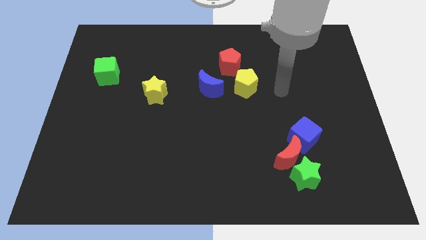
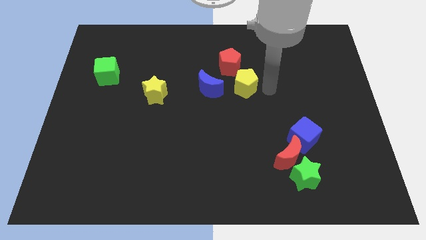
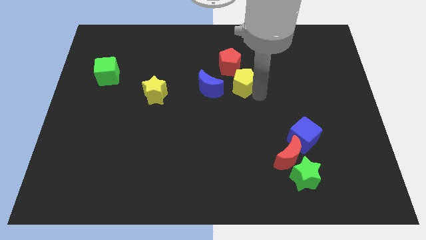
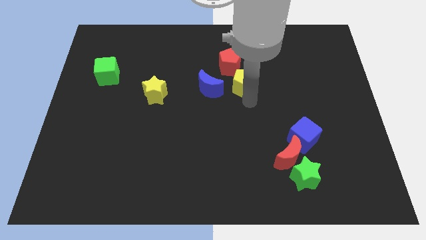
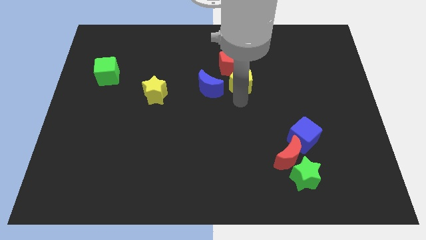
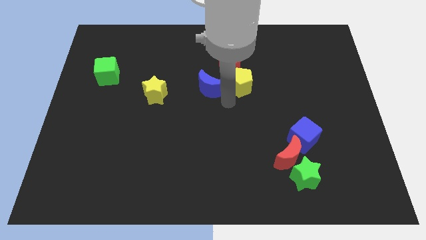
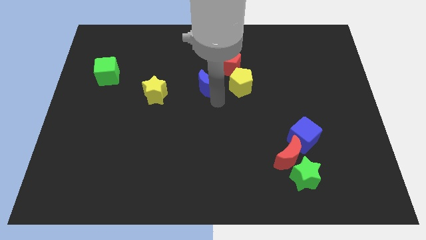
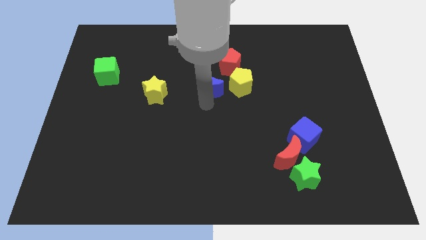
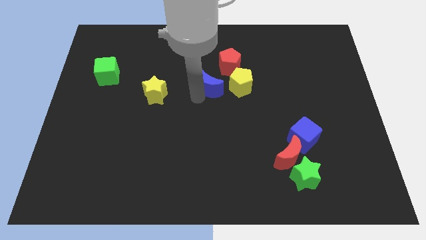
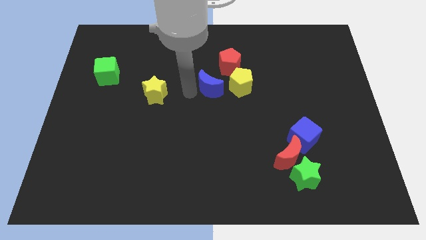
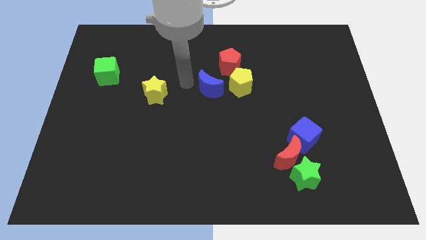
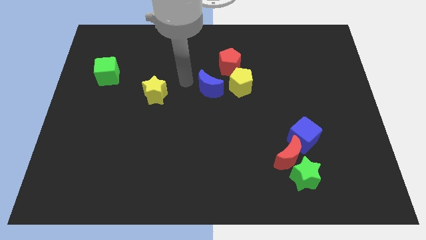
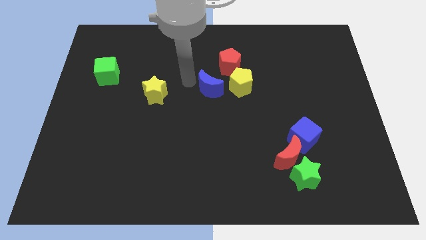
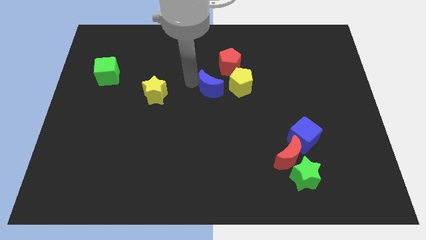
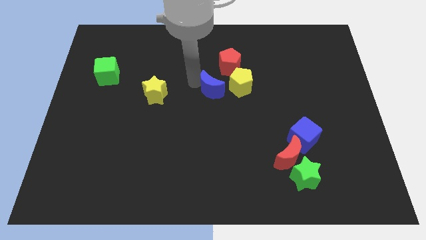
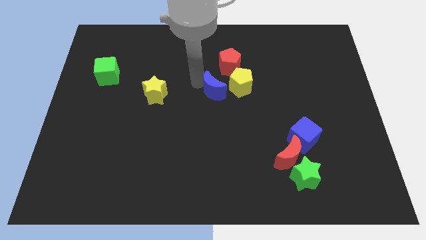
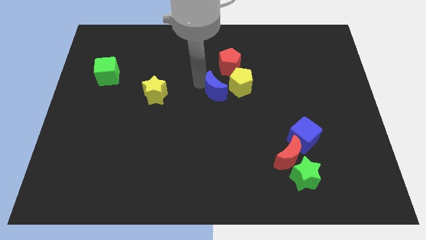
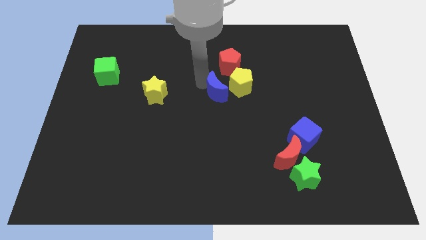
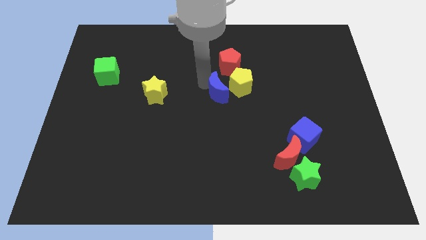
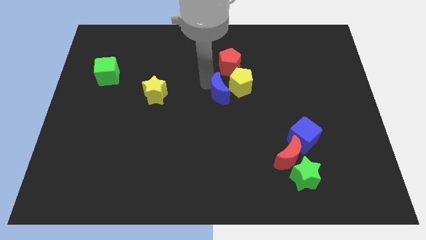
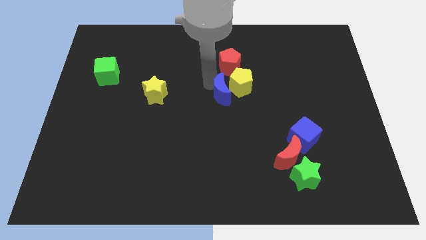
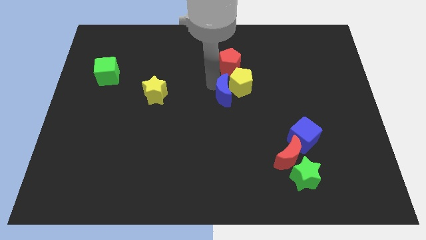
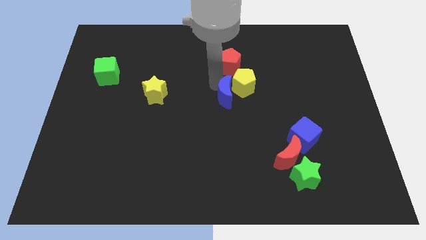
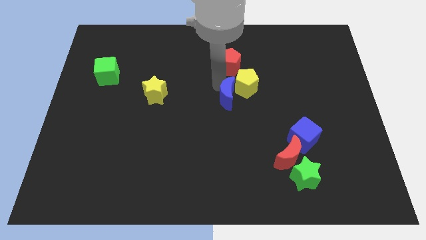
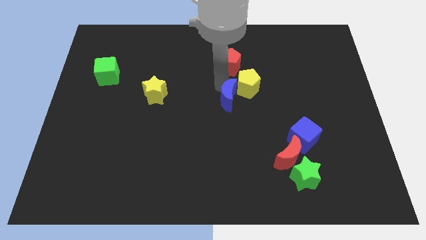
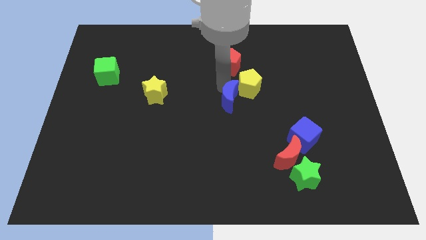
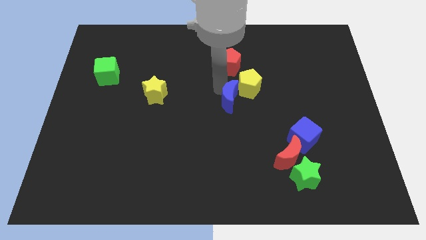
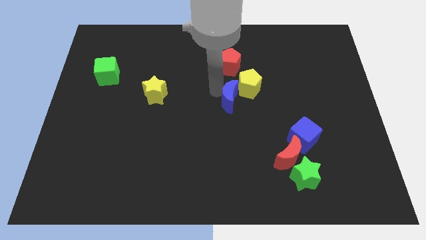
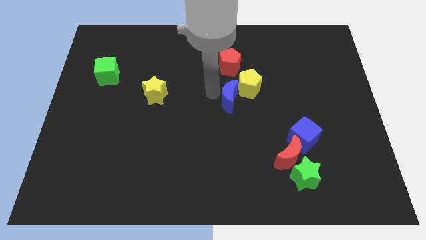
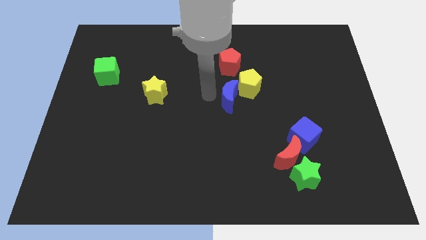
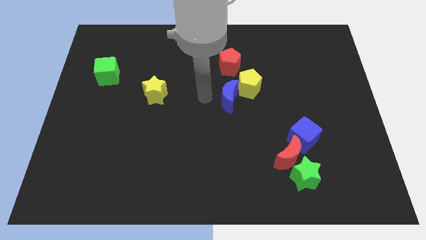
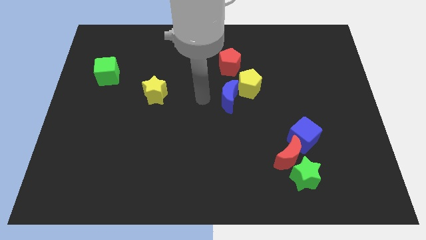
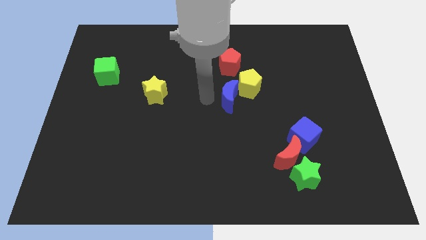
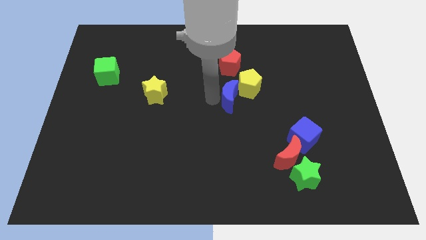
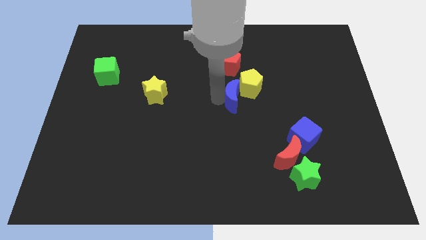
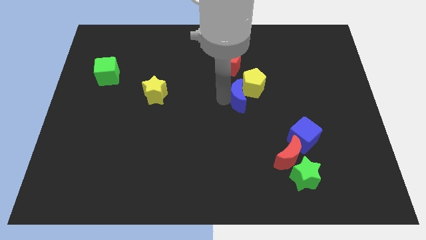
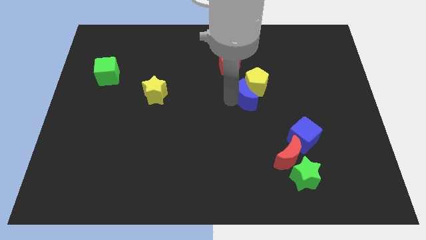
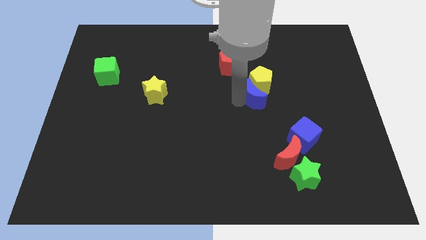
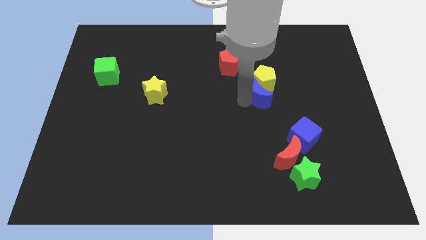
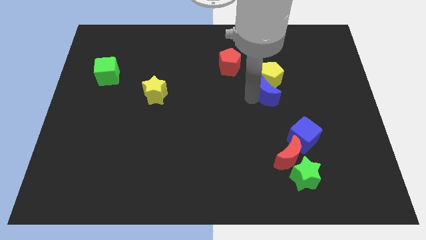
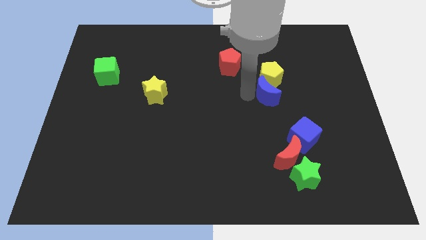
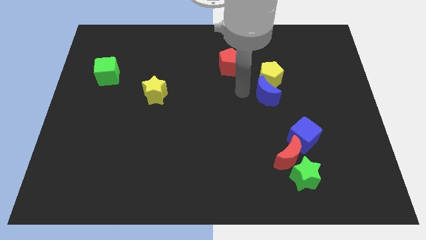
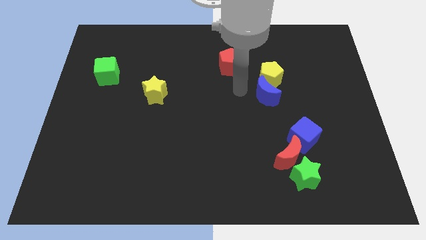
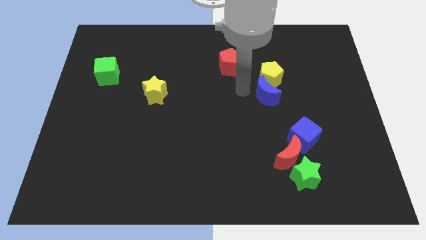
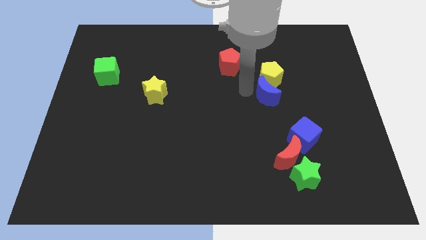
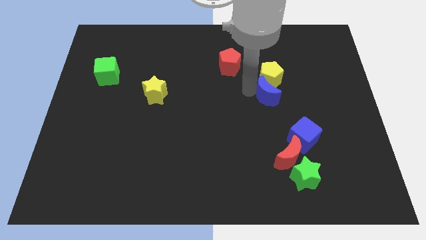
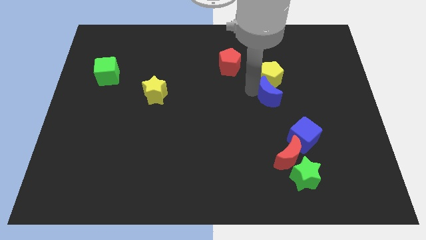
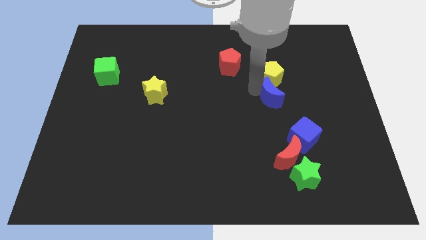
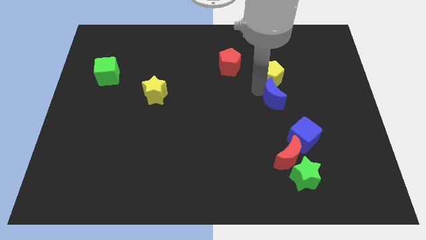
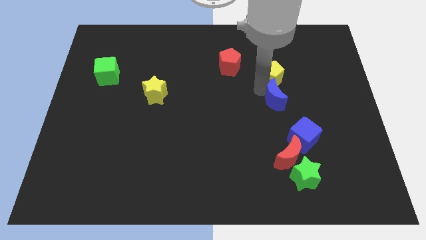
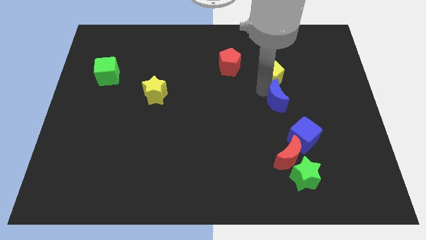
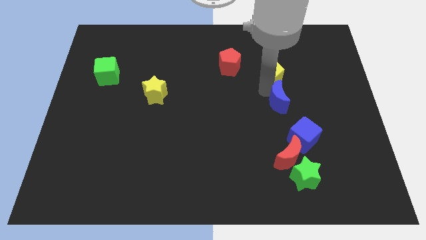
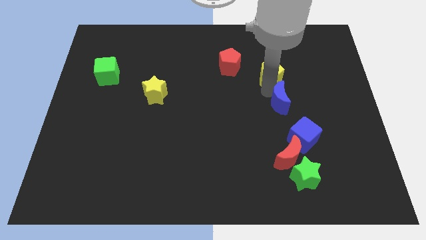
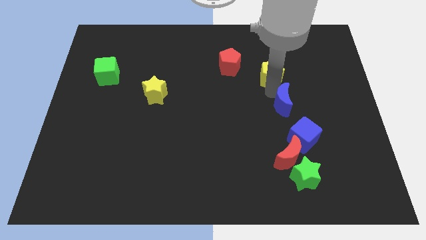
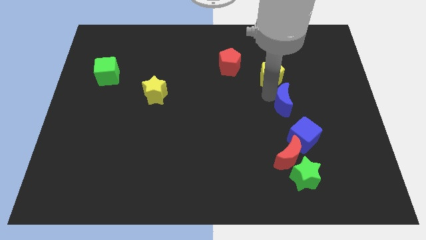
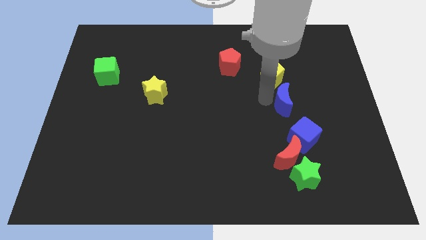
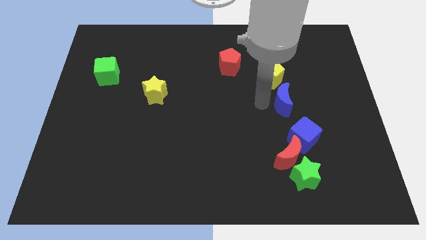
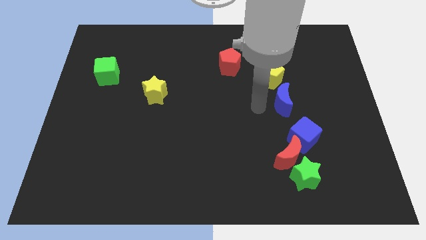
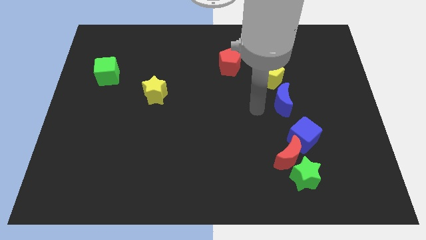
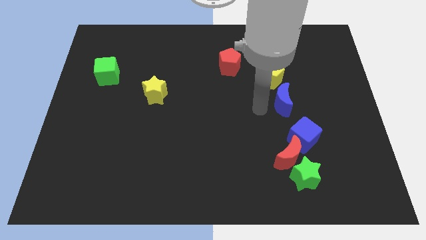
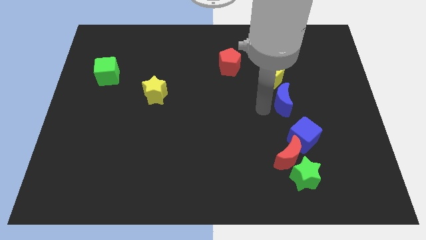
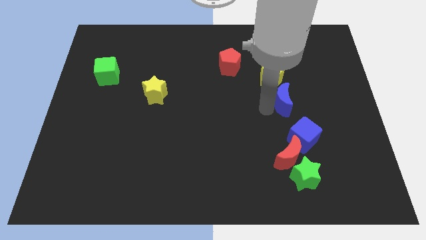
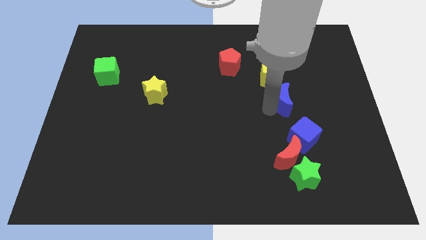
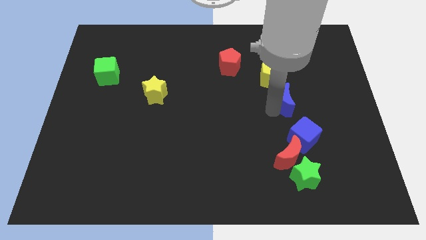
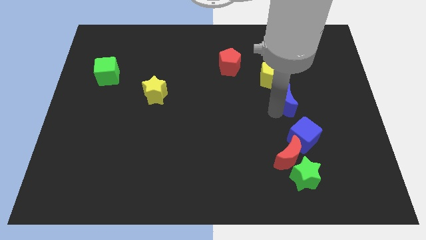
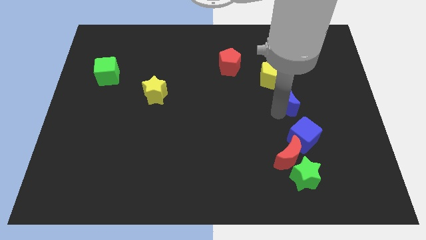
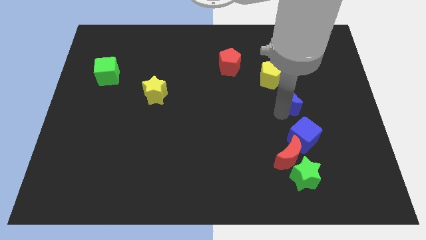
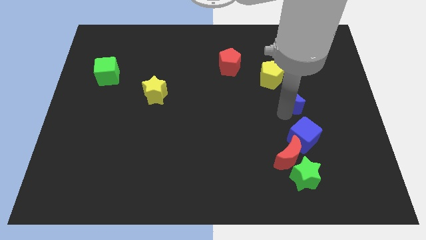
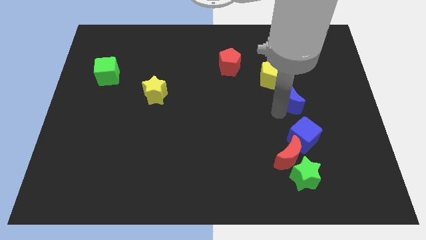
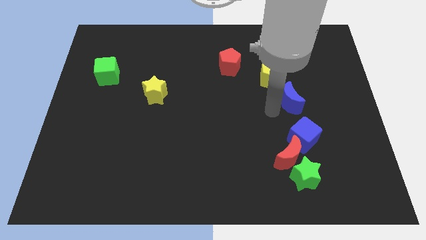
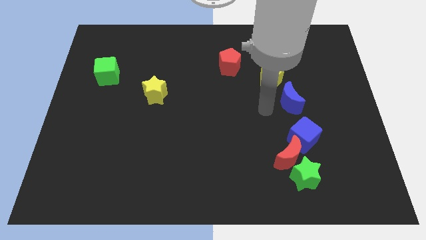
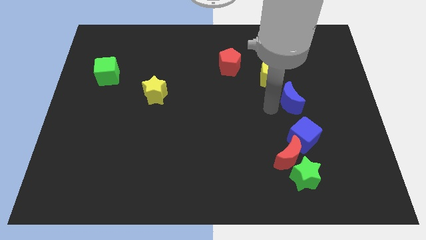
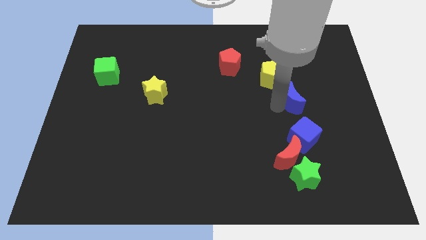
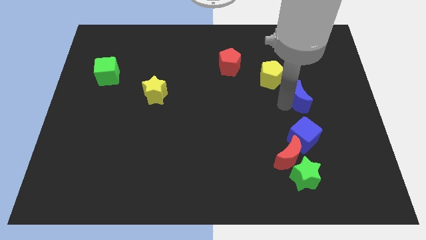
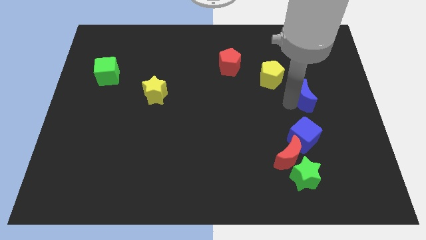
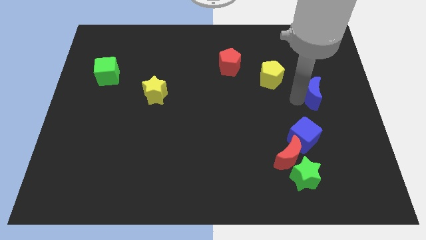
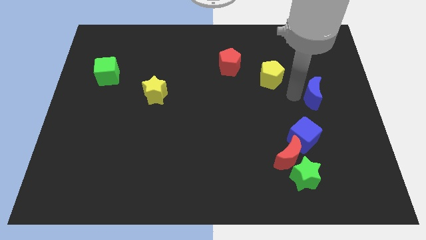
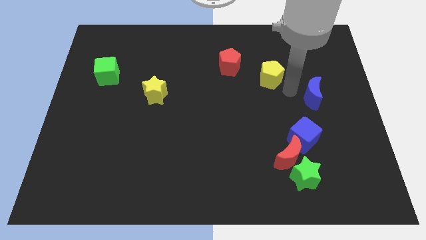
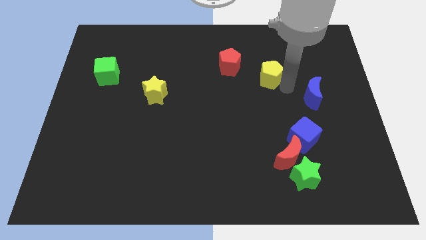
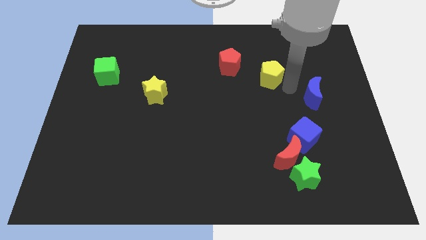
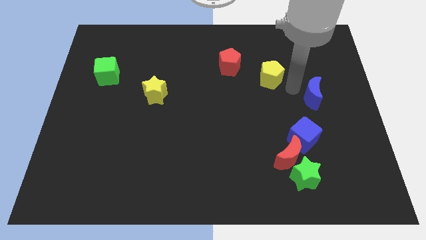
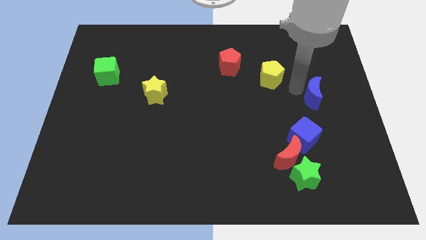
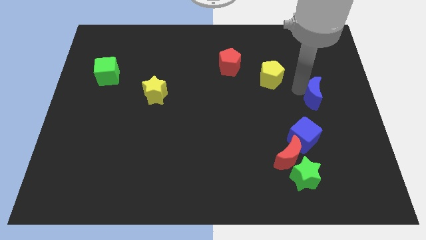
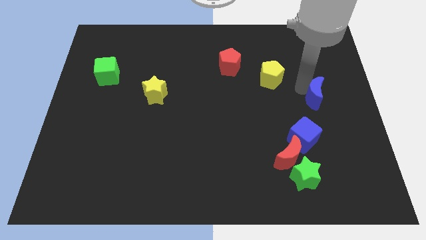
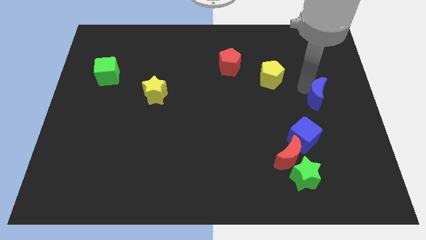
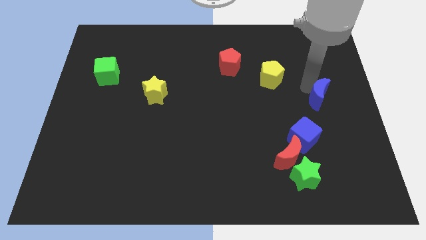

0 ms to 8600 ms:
push the blue moon to the right side of the board
